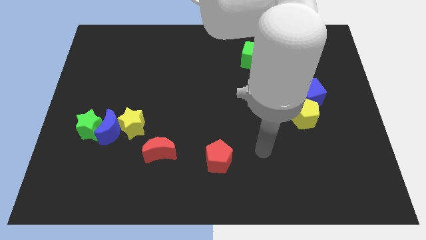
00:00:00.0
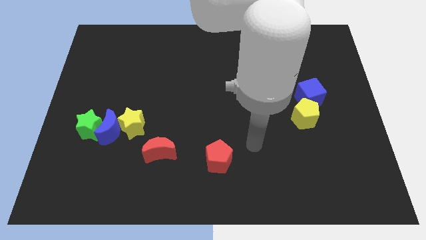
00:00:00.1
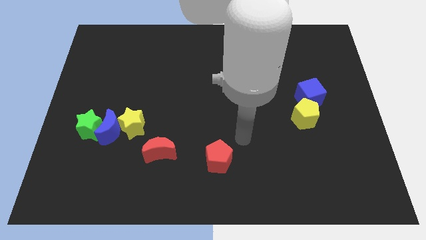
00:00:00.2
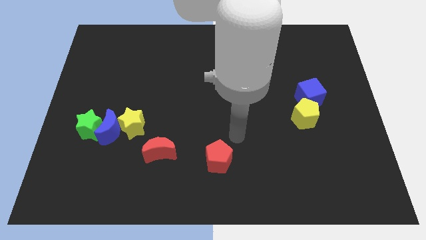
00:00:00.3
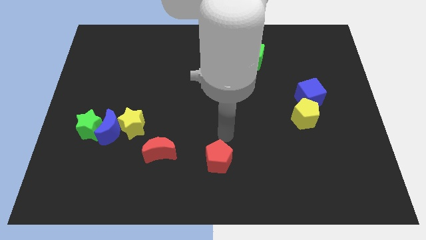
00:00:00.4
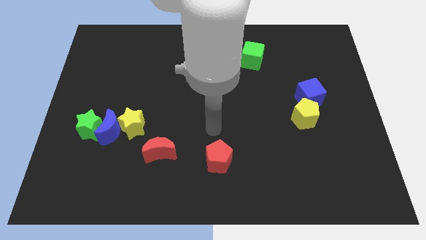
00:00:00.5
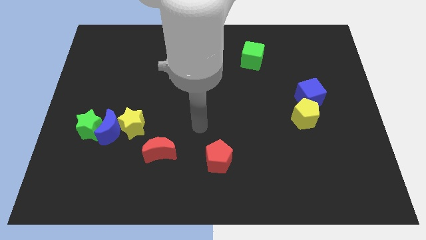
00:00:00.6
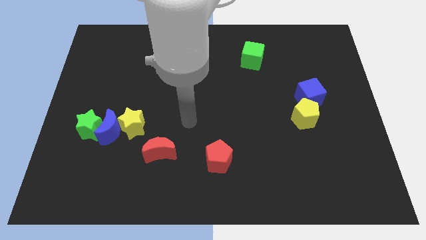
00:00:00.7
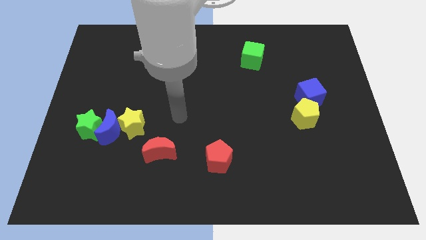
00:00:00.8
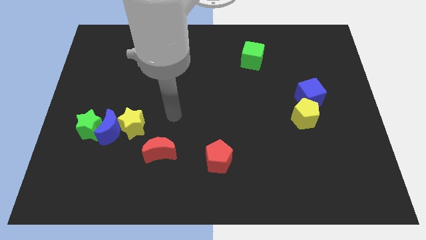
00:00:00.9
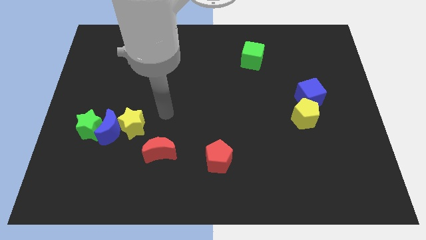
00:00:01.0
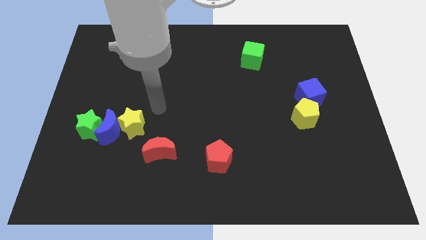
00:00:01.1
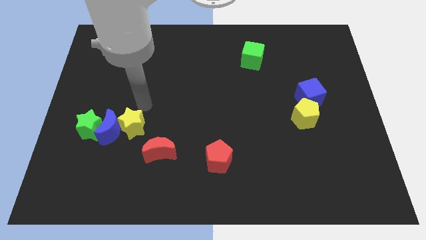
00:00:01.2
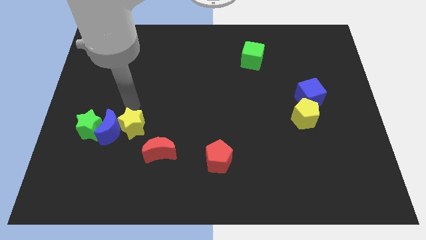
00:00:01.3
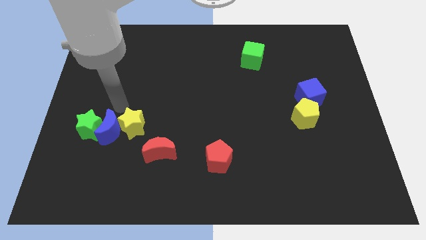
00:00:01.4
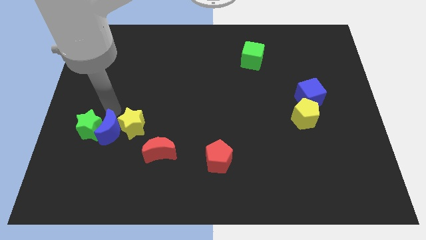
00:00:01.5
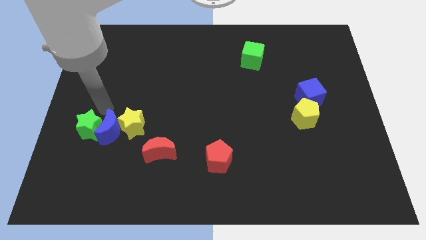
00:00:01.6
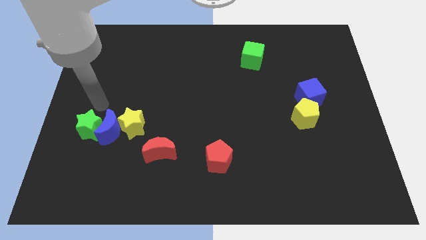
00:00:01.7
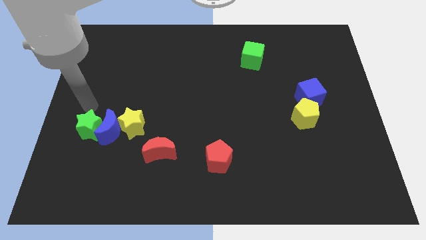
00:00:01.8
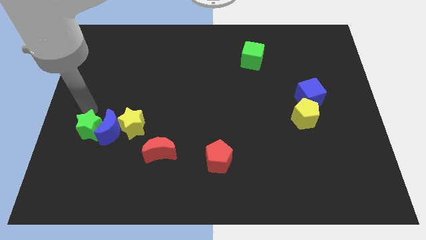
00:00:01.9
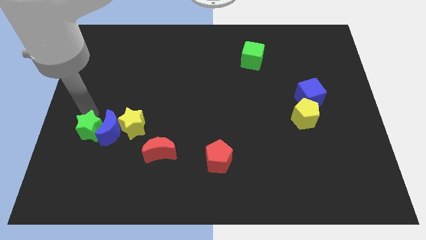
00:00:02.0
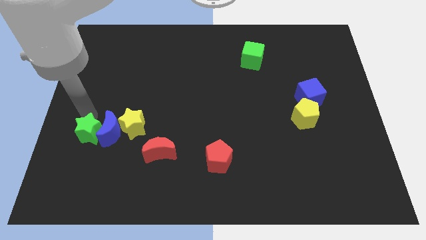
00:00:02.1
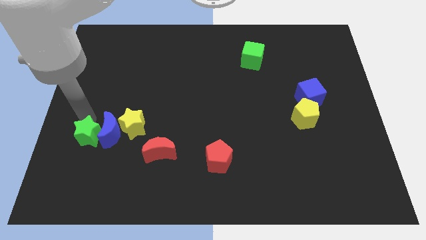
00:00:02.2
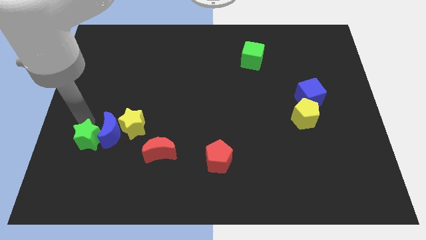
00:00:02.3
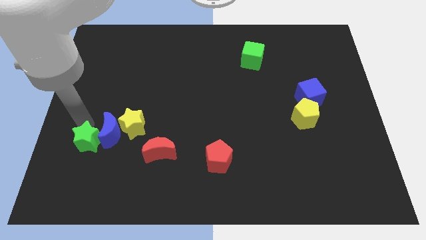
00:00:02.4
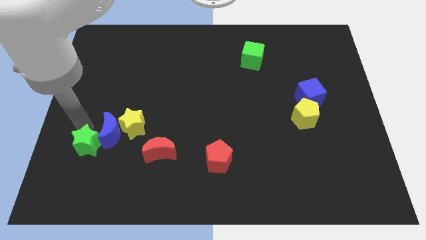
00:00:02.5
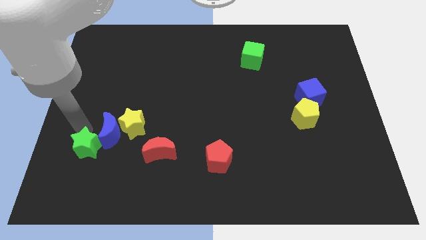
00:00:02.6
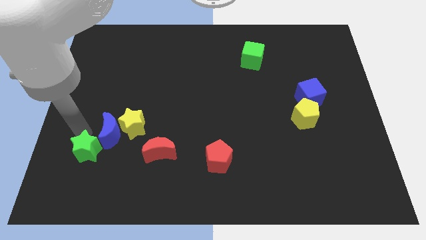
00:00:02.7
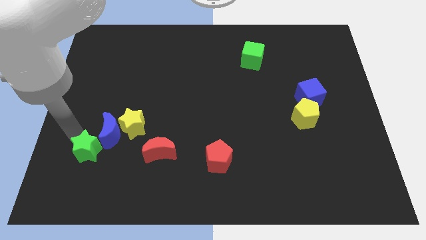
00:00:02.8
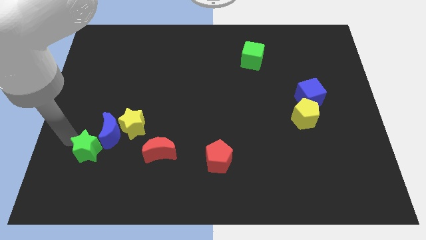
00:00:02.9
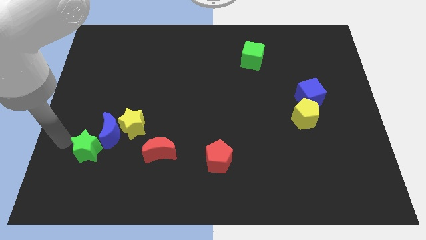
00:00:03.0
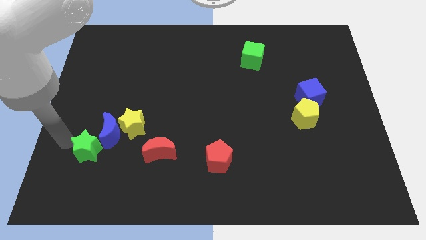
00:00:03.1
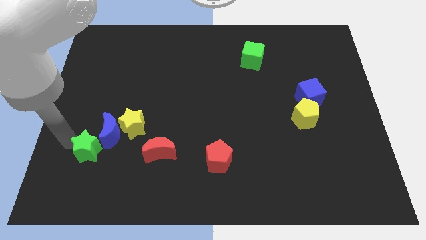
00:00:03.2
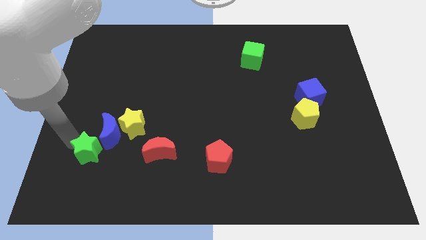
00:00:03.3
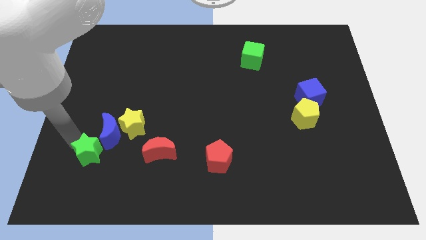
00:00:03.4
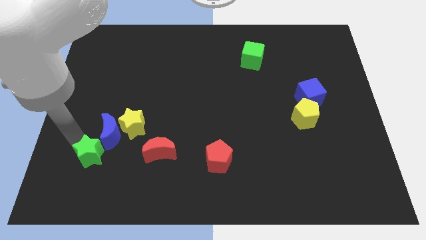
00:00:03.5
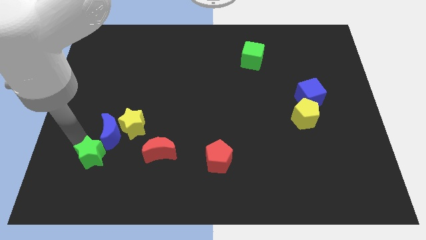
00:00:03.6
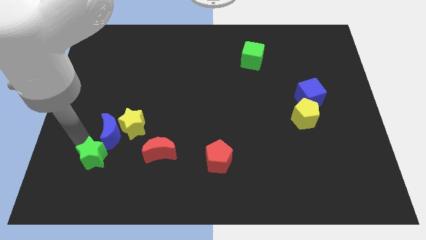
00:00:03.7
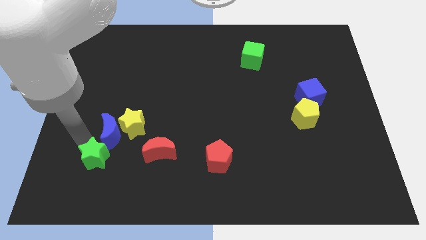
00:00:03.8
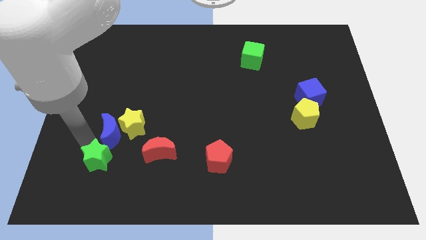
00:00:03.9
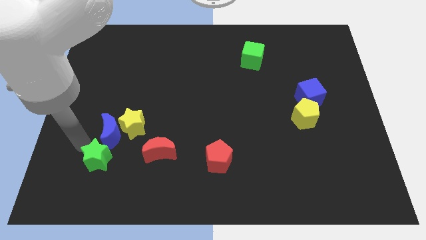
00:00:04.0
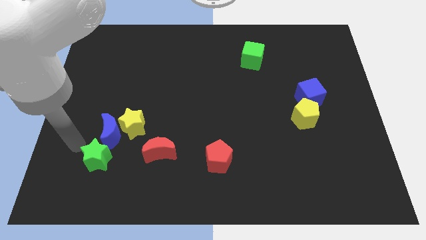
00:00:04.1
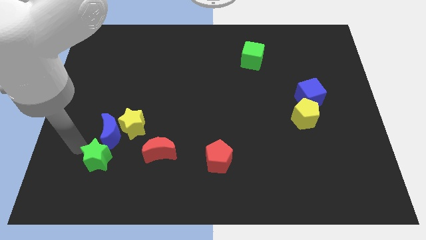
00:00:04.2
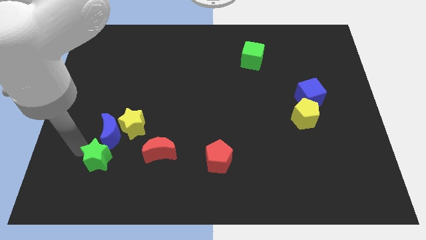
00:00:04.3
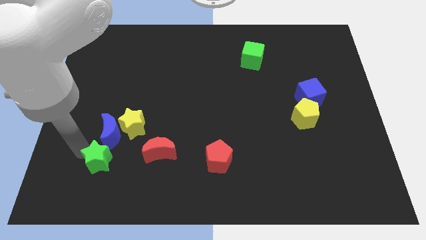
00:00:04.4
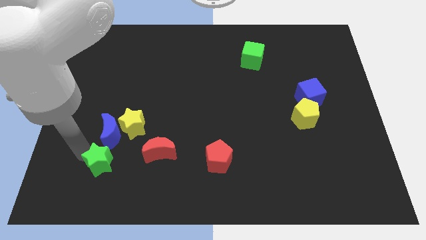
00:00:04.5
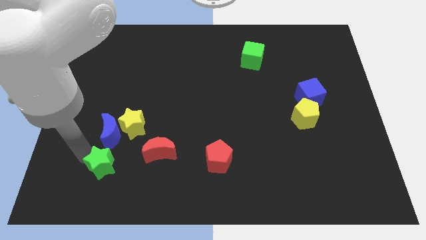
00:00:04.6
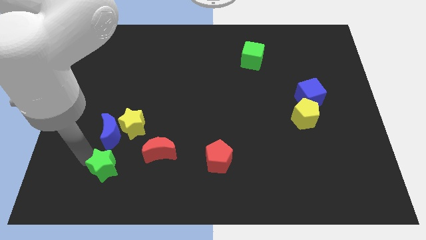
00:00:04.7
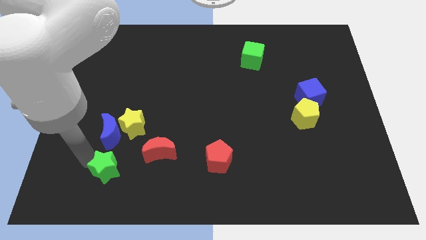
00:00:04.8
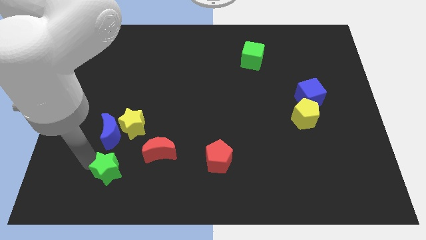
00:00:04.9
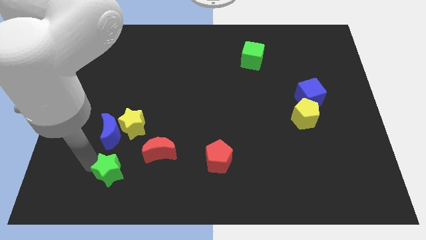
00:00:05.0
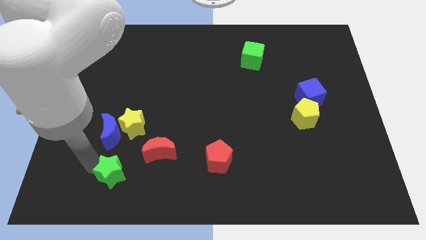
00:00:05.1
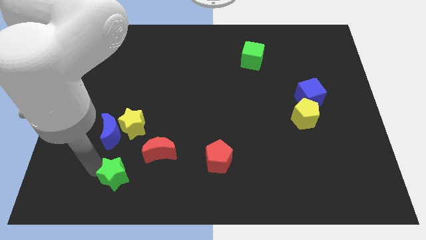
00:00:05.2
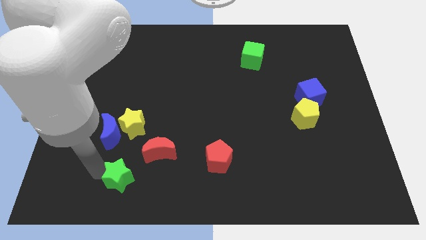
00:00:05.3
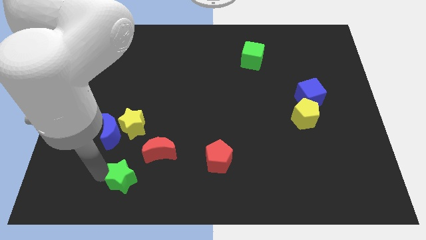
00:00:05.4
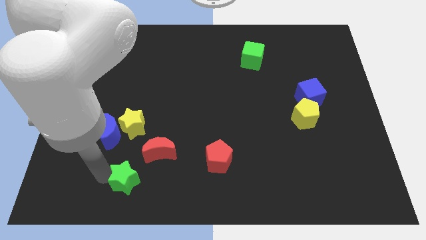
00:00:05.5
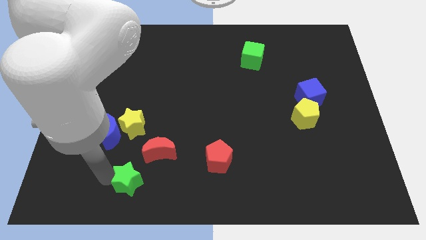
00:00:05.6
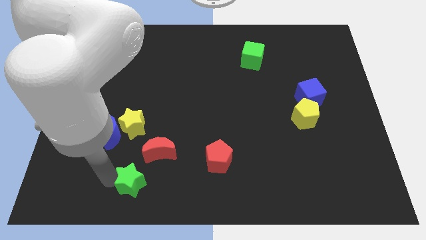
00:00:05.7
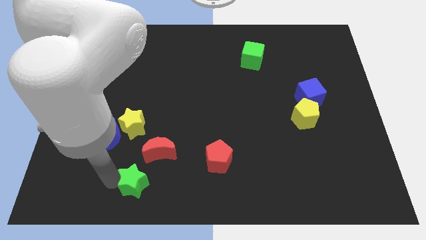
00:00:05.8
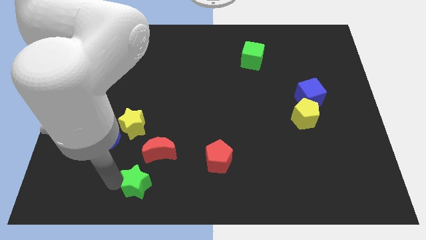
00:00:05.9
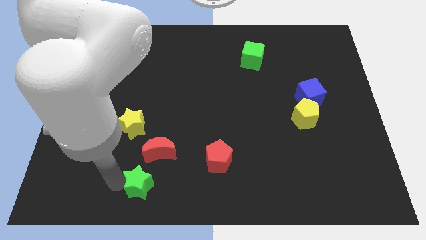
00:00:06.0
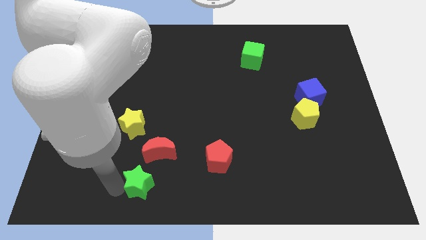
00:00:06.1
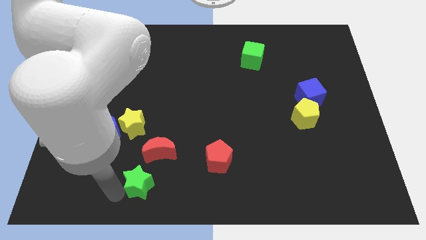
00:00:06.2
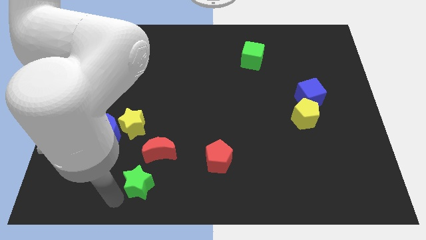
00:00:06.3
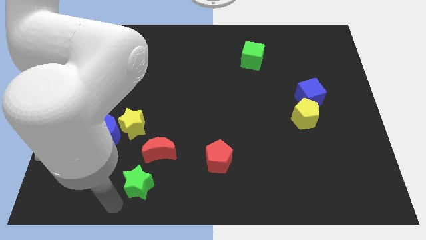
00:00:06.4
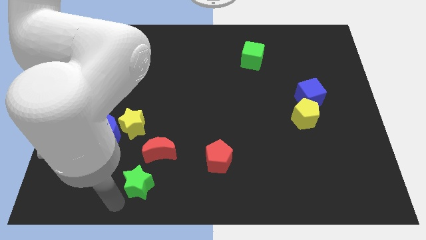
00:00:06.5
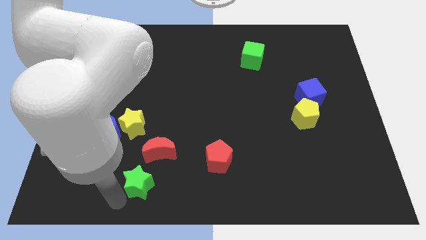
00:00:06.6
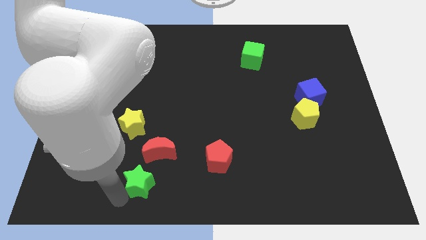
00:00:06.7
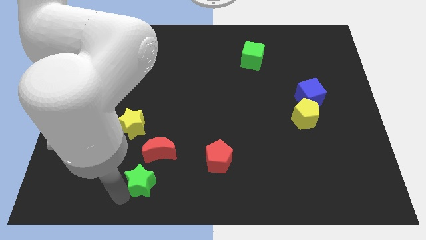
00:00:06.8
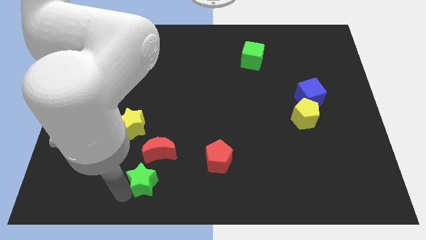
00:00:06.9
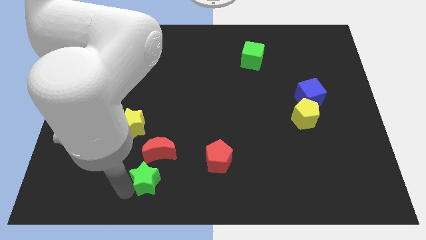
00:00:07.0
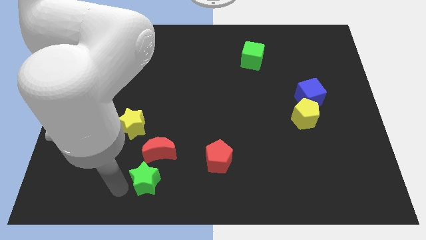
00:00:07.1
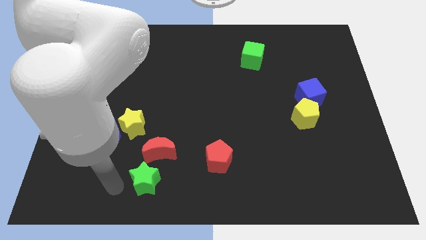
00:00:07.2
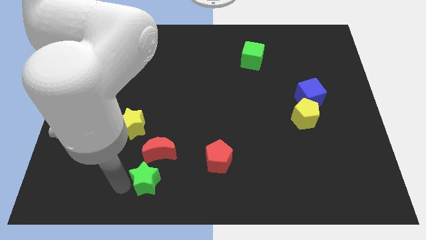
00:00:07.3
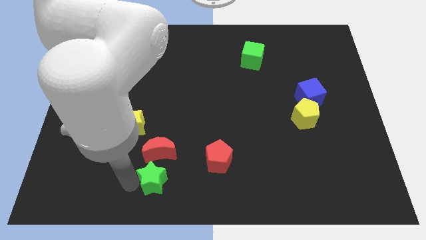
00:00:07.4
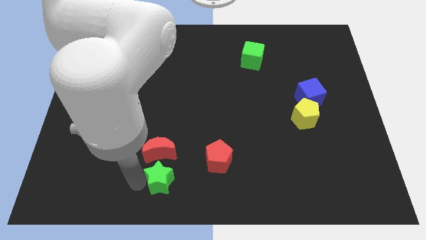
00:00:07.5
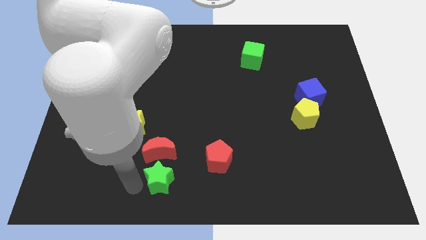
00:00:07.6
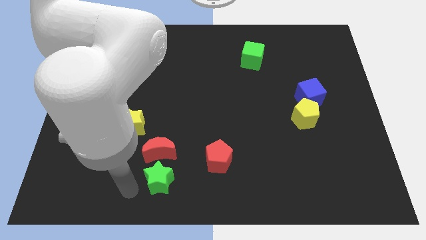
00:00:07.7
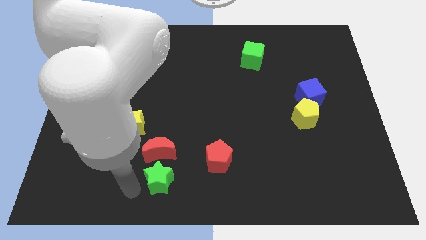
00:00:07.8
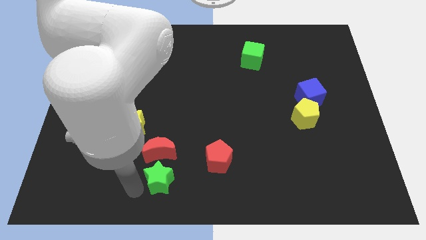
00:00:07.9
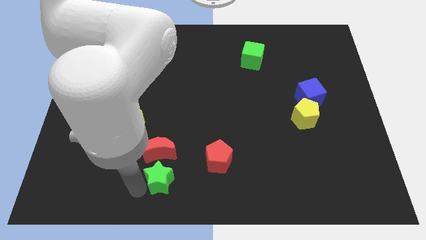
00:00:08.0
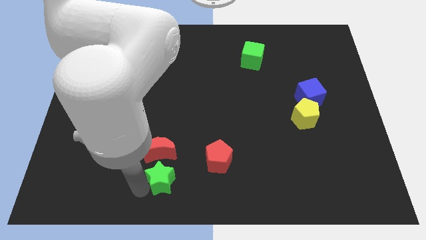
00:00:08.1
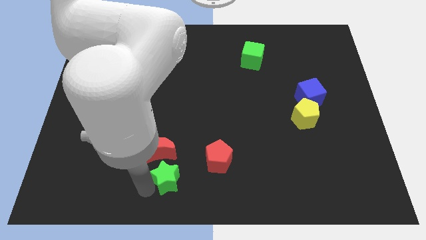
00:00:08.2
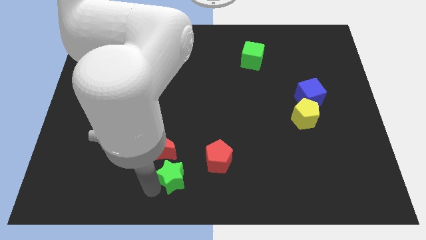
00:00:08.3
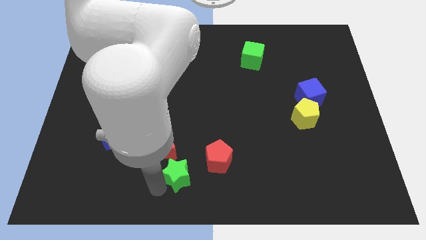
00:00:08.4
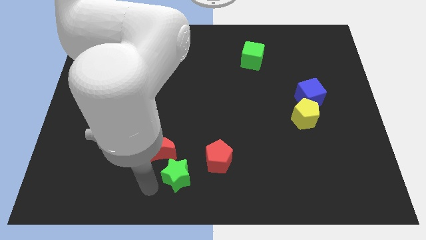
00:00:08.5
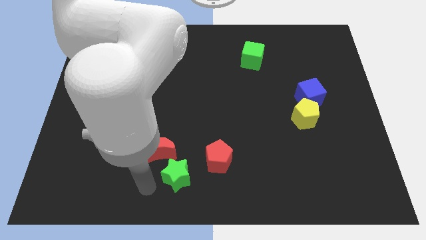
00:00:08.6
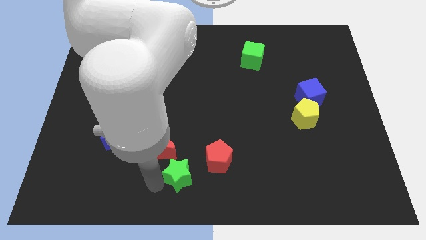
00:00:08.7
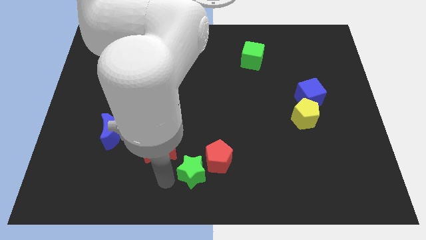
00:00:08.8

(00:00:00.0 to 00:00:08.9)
put the green star close to the red pentagon
